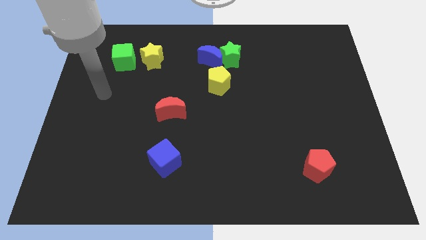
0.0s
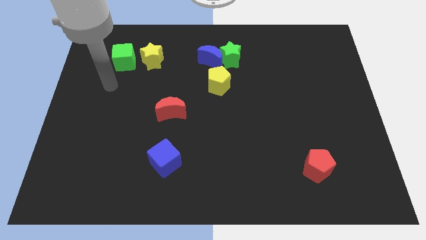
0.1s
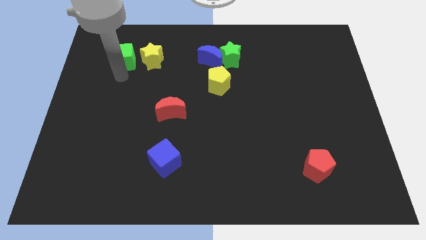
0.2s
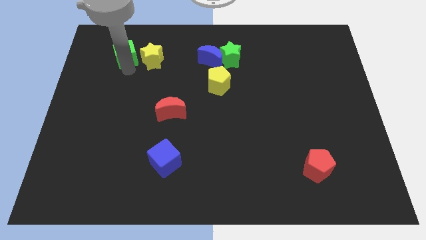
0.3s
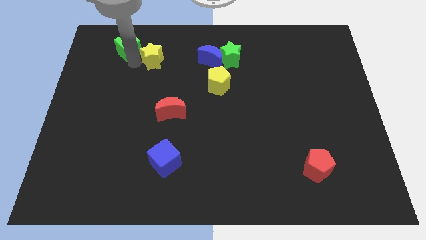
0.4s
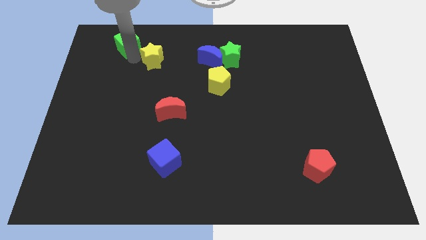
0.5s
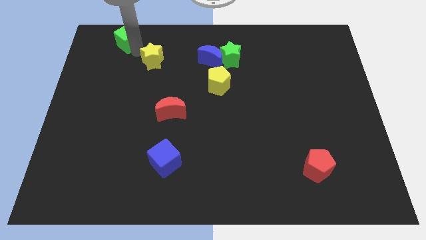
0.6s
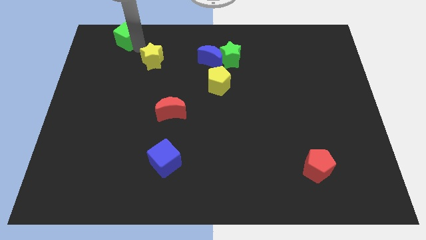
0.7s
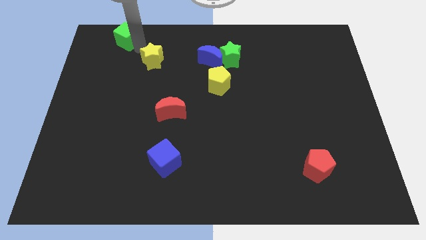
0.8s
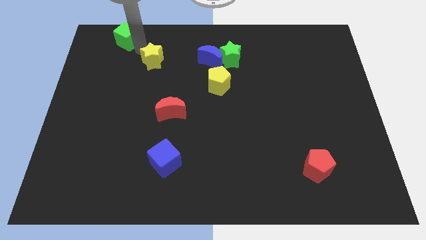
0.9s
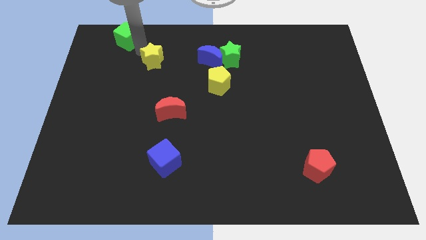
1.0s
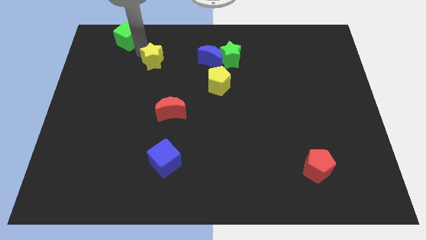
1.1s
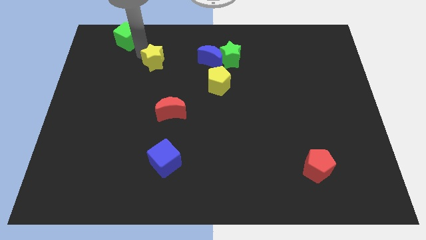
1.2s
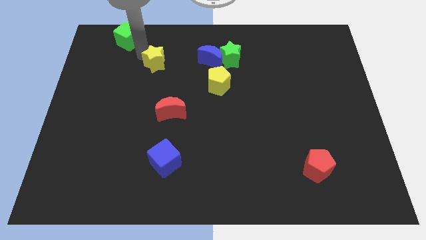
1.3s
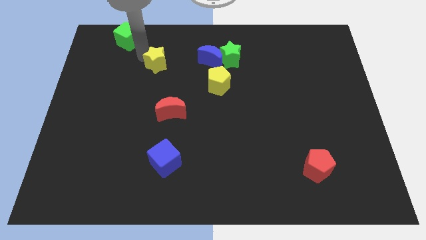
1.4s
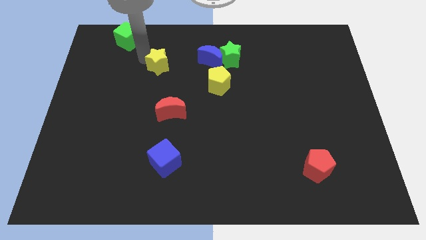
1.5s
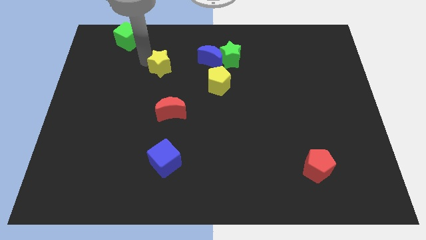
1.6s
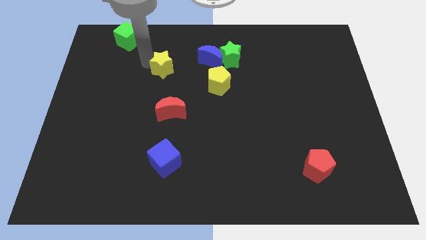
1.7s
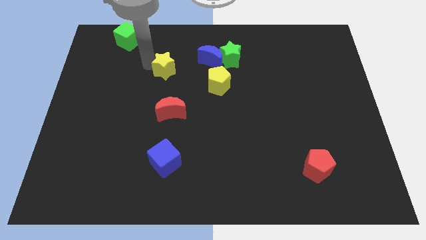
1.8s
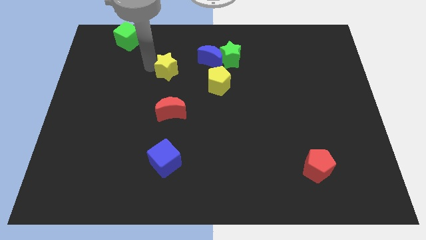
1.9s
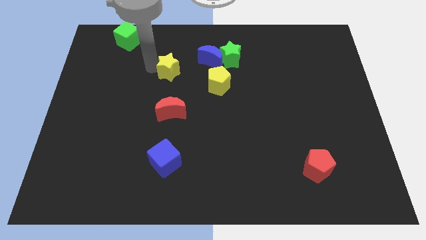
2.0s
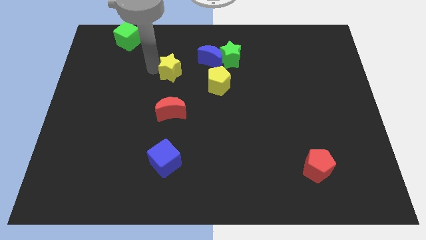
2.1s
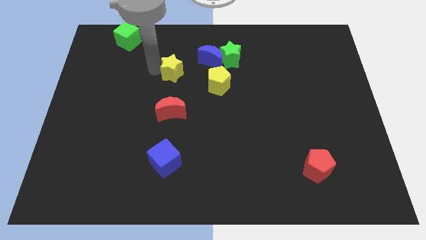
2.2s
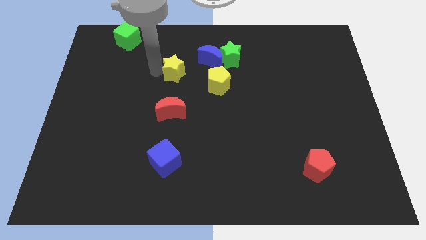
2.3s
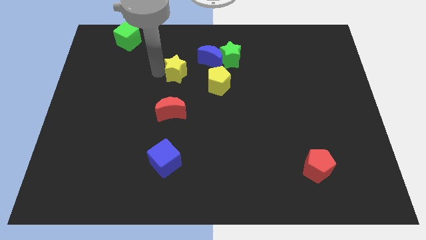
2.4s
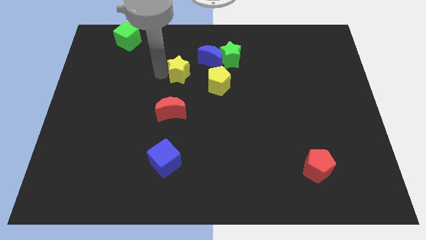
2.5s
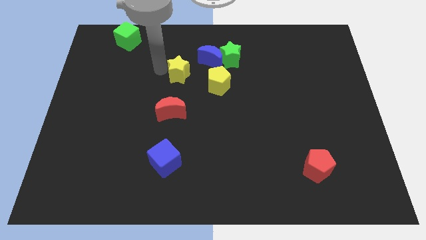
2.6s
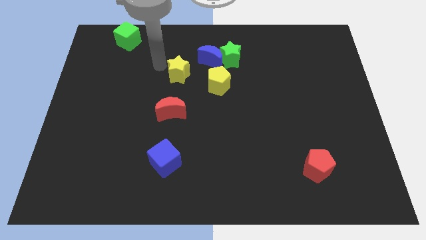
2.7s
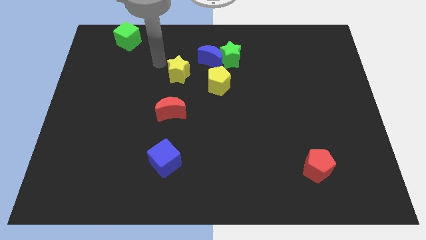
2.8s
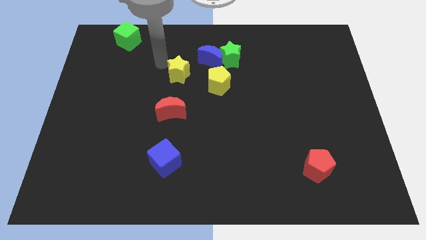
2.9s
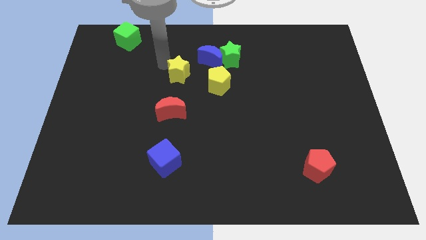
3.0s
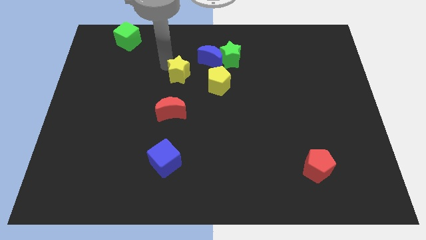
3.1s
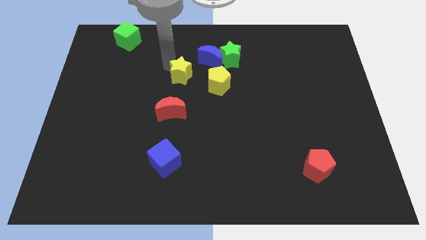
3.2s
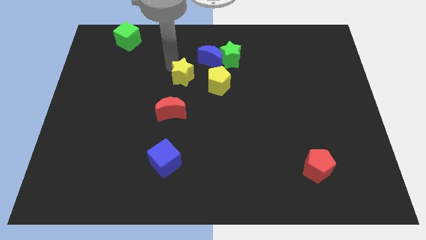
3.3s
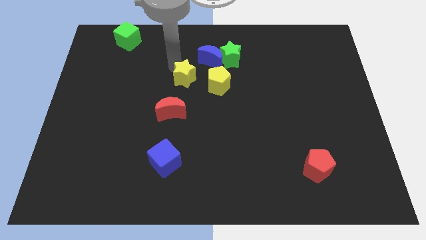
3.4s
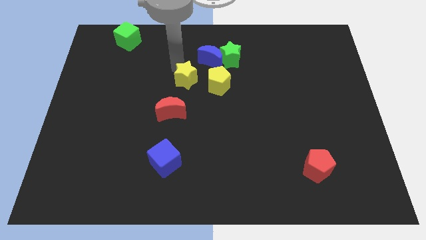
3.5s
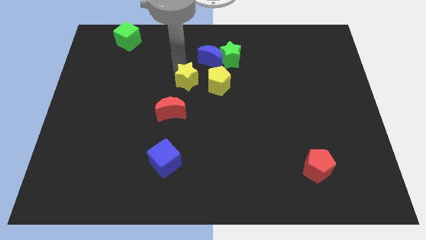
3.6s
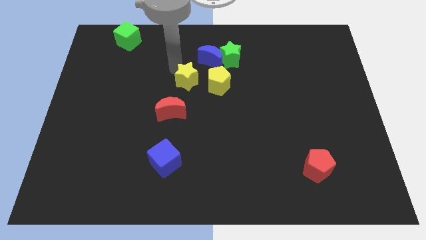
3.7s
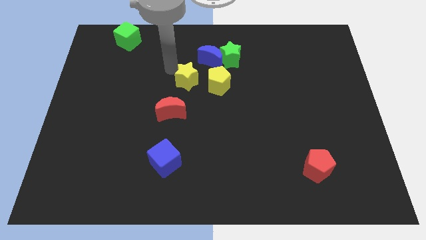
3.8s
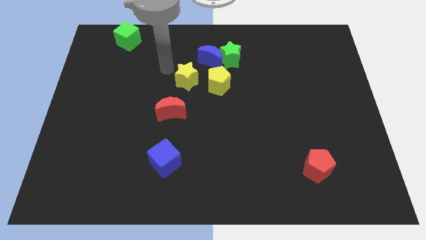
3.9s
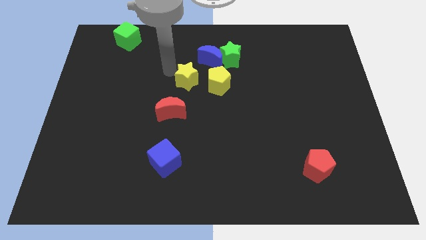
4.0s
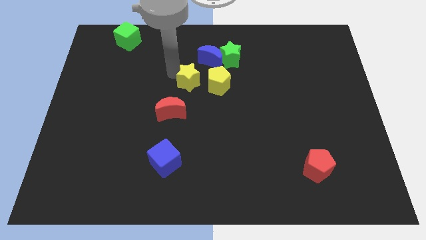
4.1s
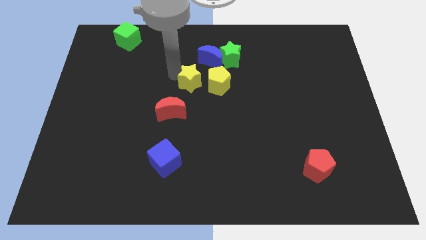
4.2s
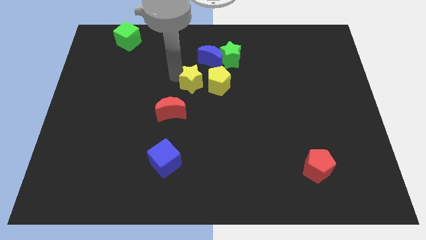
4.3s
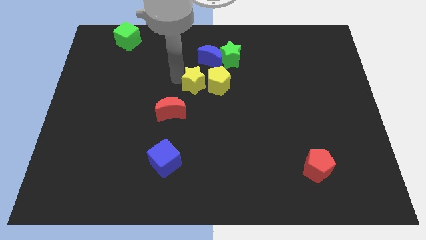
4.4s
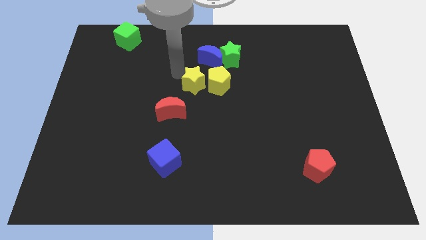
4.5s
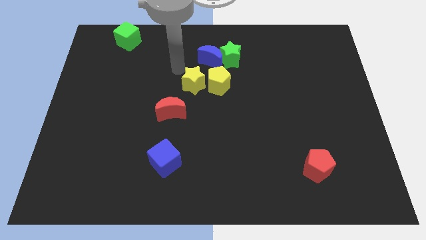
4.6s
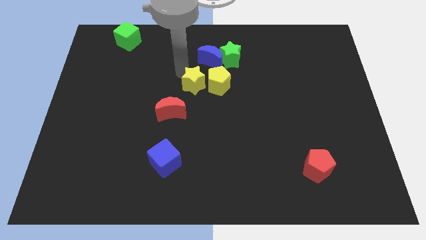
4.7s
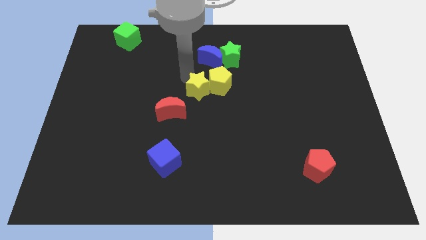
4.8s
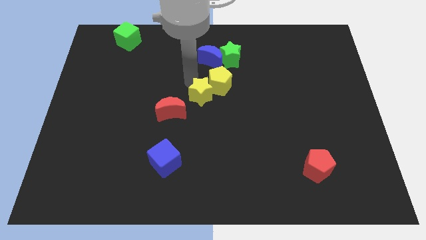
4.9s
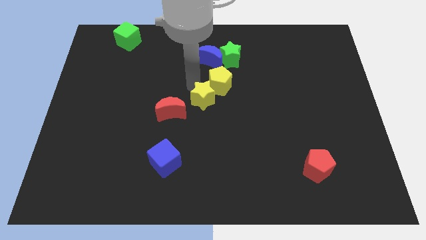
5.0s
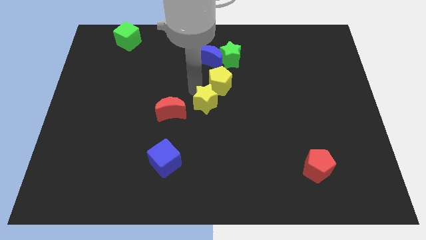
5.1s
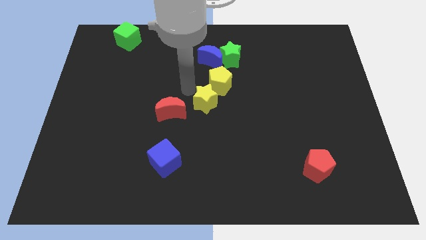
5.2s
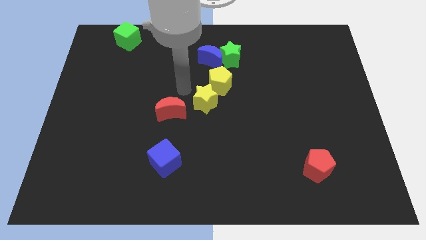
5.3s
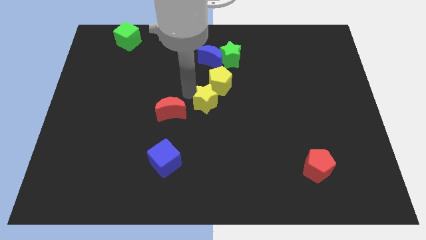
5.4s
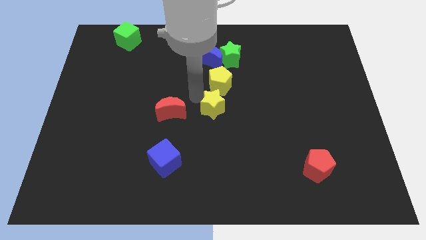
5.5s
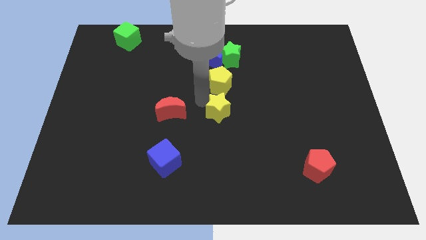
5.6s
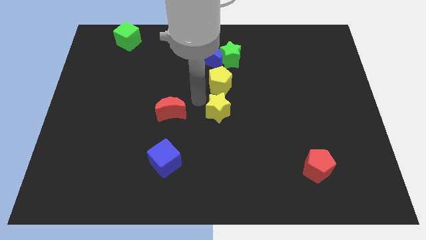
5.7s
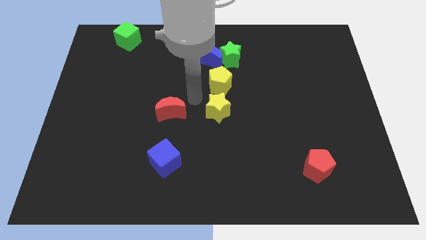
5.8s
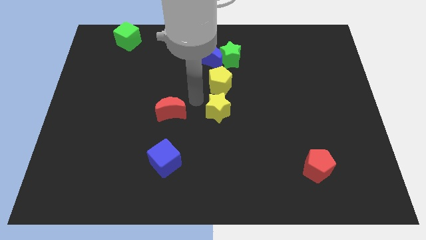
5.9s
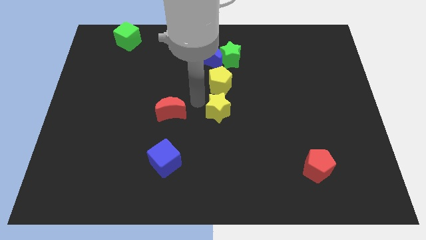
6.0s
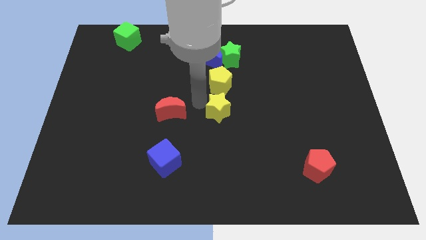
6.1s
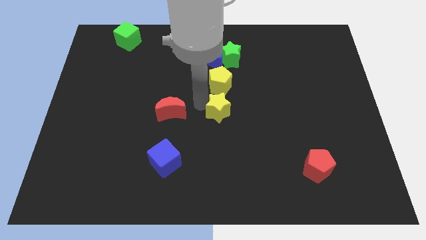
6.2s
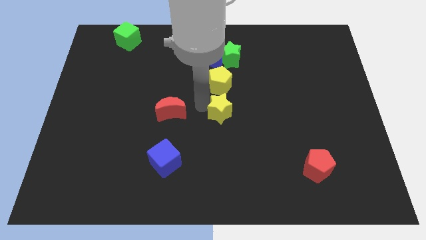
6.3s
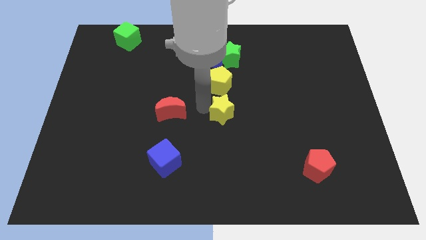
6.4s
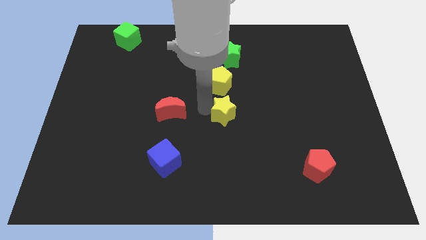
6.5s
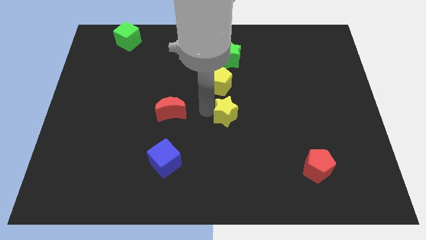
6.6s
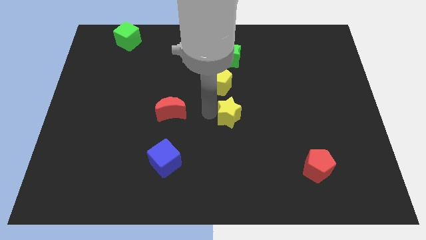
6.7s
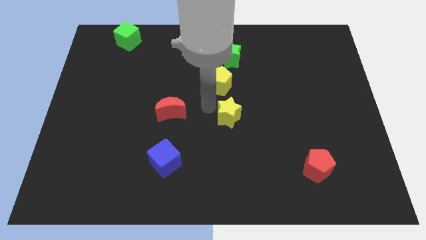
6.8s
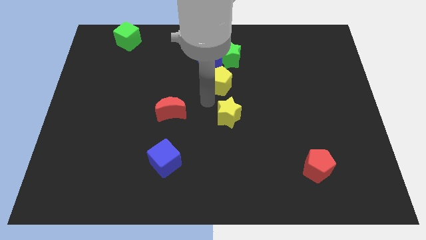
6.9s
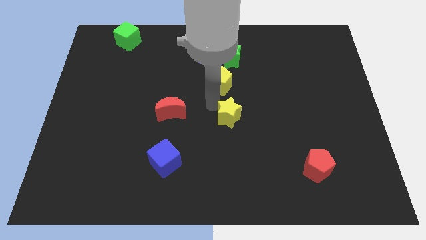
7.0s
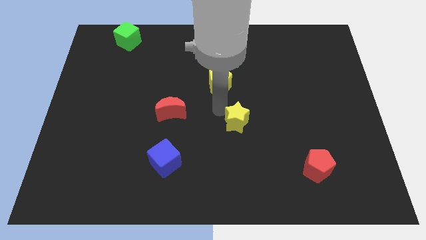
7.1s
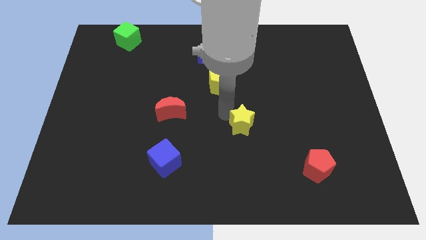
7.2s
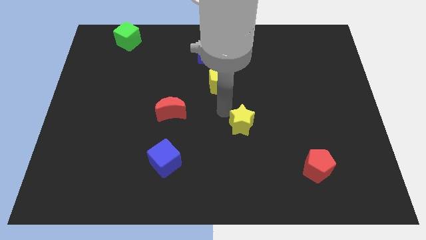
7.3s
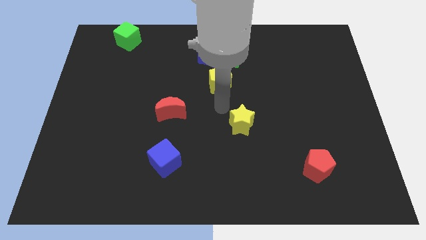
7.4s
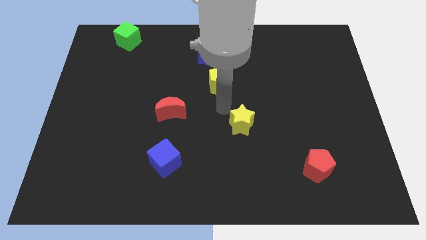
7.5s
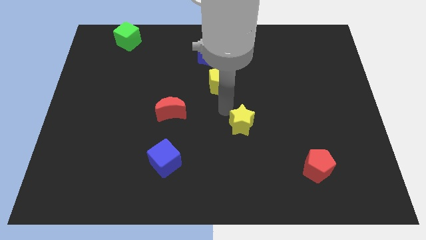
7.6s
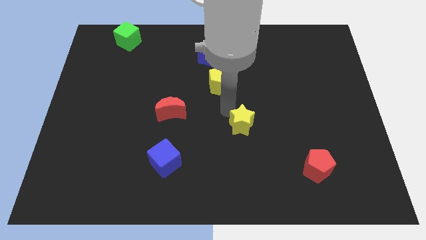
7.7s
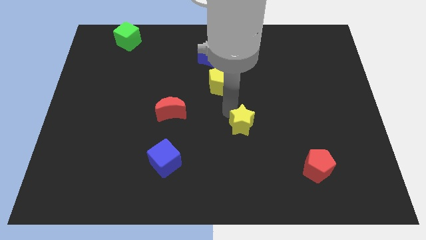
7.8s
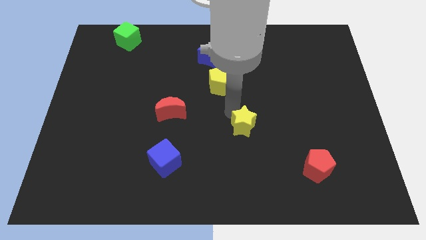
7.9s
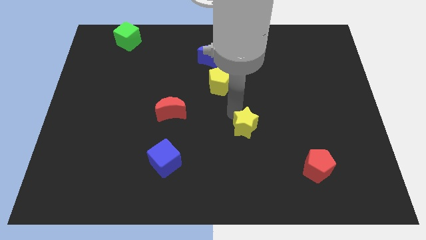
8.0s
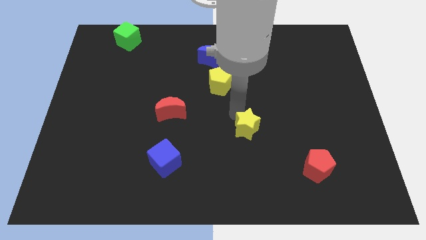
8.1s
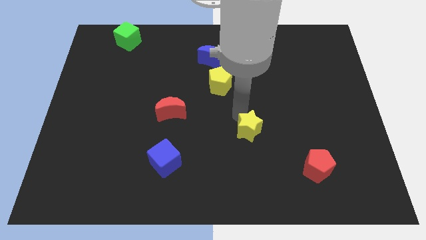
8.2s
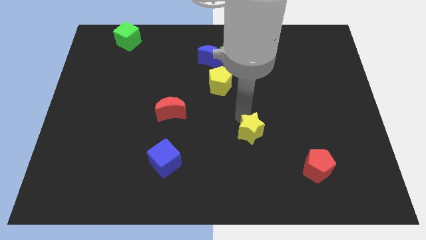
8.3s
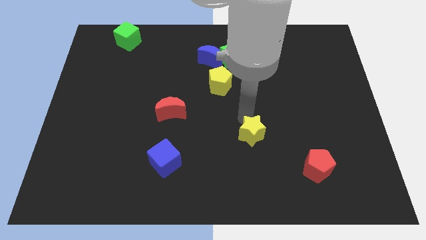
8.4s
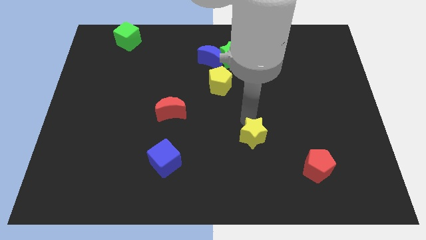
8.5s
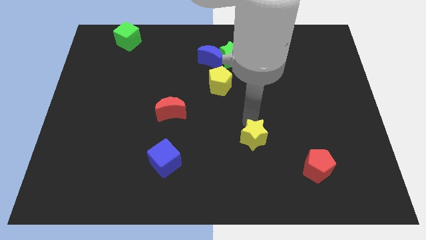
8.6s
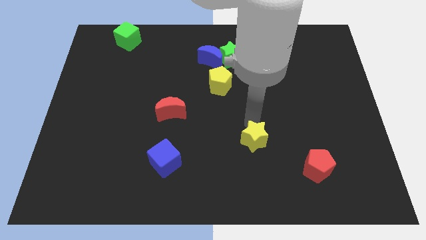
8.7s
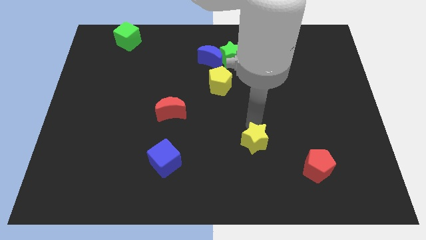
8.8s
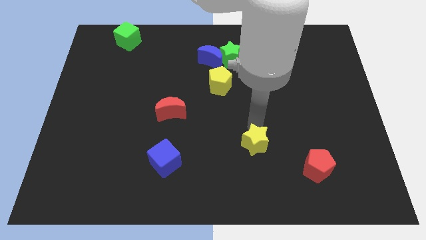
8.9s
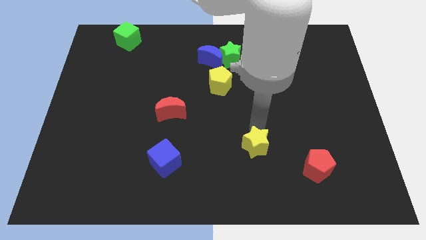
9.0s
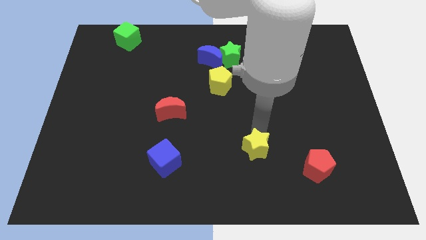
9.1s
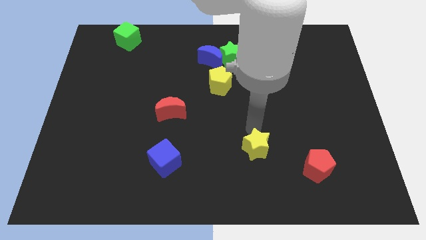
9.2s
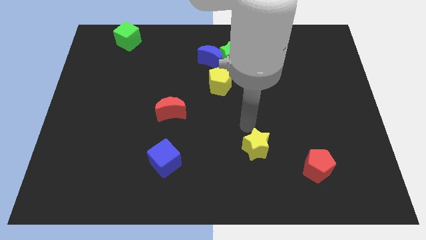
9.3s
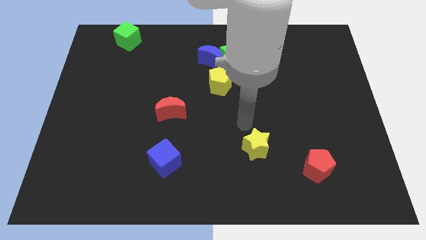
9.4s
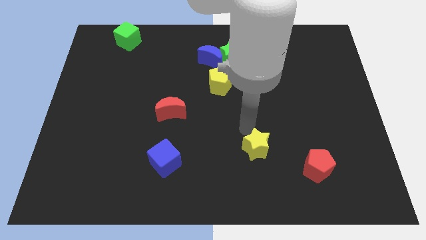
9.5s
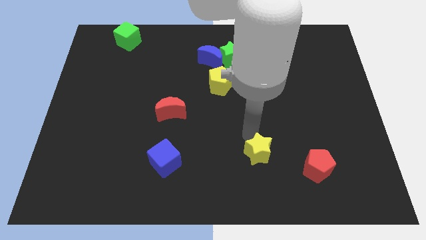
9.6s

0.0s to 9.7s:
push the yellow star left of the red pentagon
